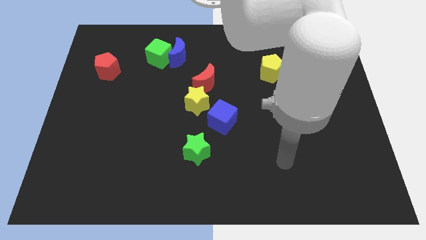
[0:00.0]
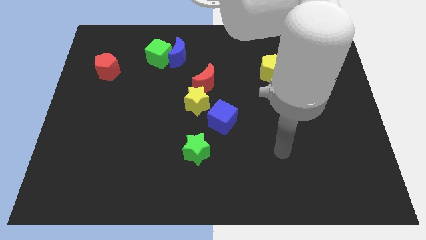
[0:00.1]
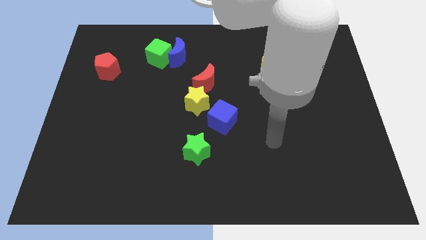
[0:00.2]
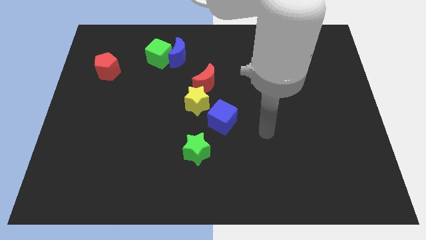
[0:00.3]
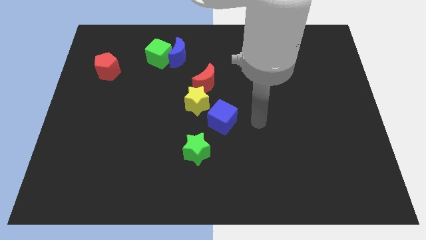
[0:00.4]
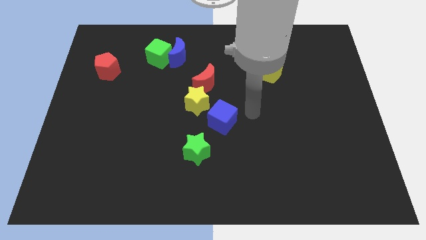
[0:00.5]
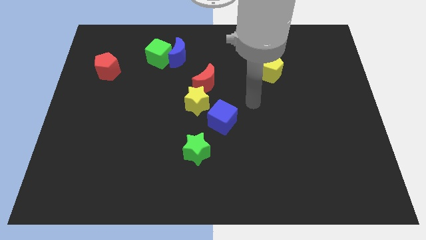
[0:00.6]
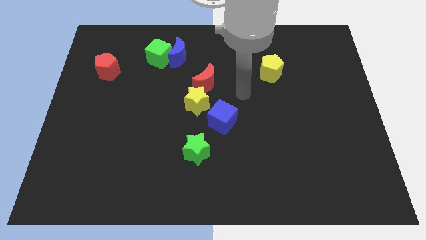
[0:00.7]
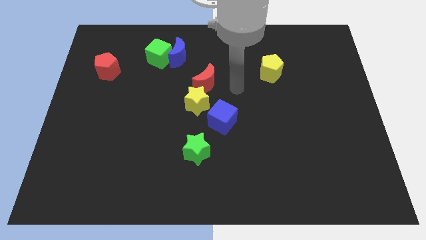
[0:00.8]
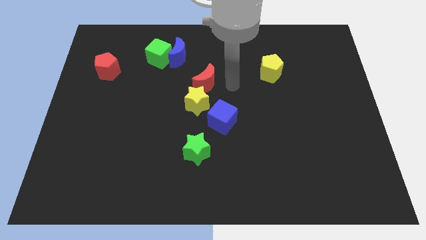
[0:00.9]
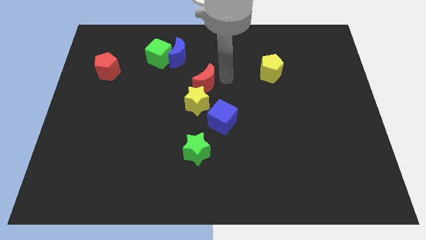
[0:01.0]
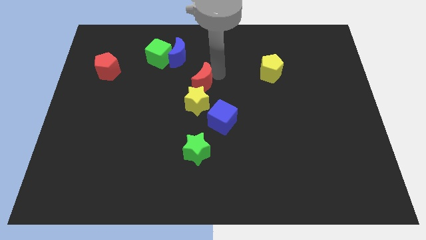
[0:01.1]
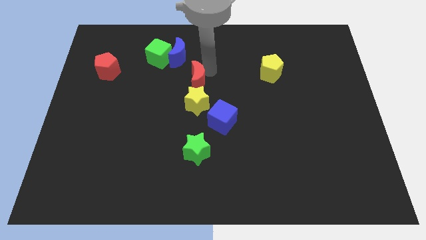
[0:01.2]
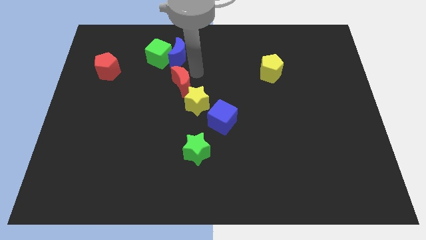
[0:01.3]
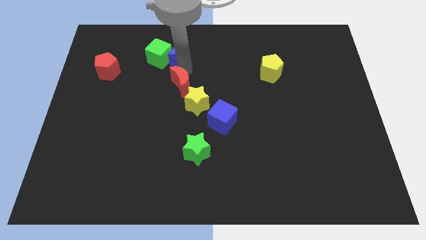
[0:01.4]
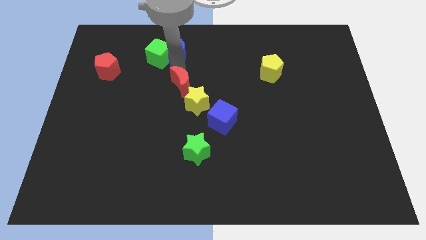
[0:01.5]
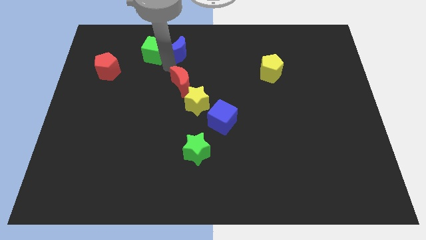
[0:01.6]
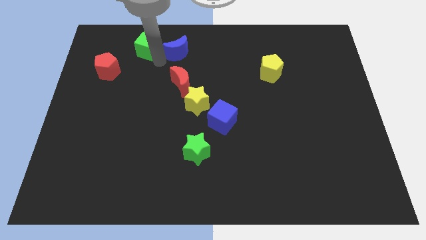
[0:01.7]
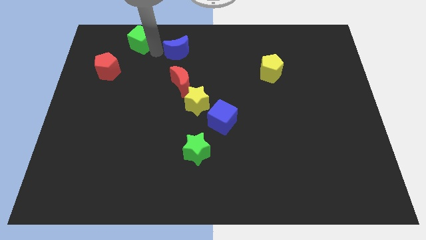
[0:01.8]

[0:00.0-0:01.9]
move the blue moon away from the green cube

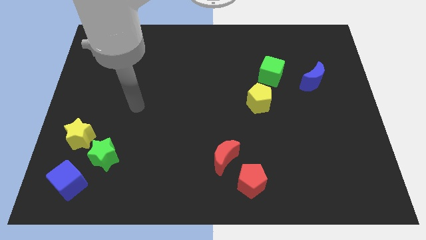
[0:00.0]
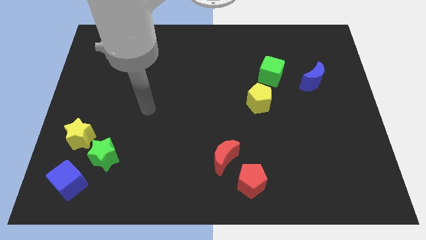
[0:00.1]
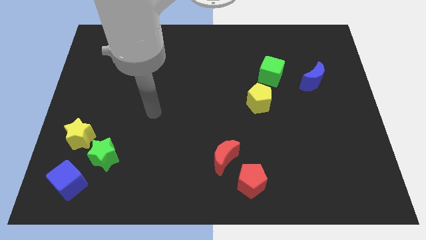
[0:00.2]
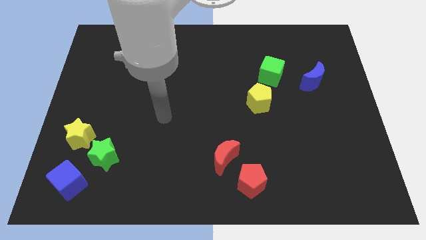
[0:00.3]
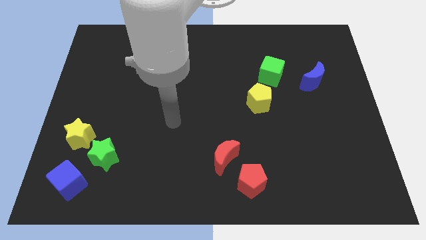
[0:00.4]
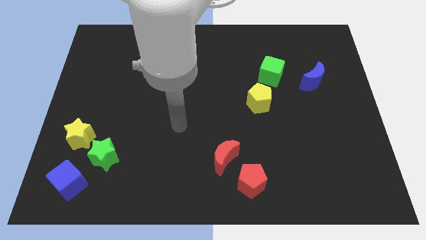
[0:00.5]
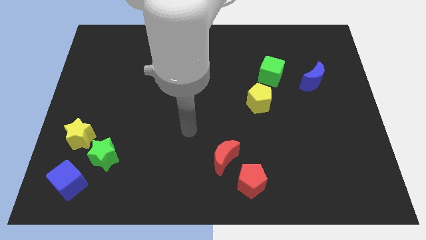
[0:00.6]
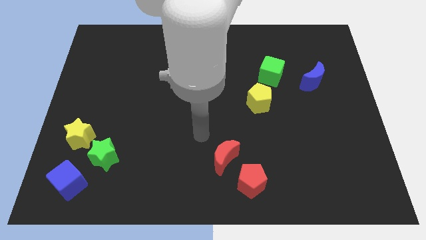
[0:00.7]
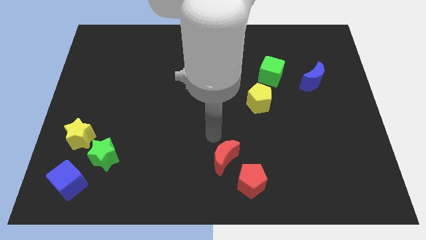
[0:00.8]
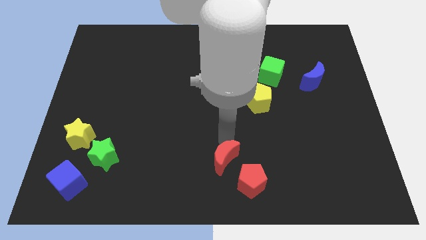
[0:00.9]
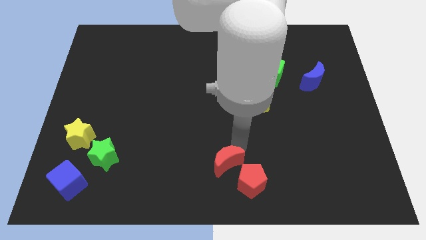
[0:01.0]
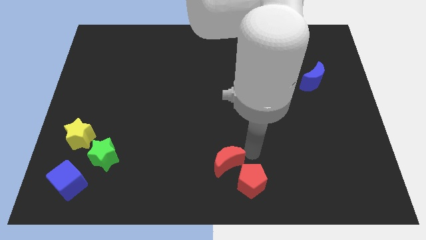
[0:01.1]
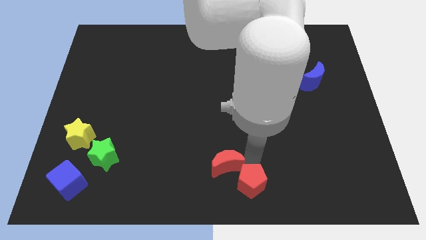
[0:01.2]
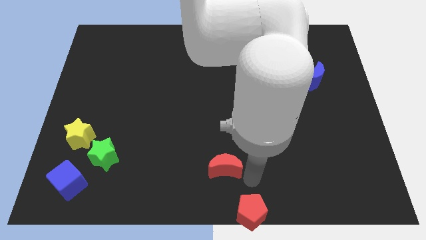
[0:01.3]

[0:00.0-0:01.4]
move the red moon away from the red pentagon

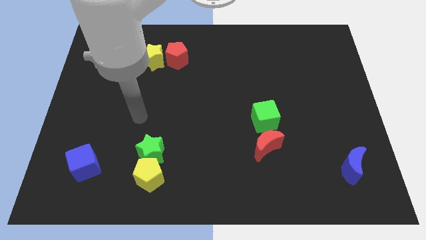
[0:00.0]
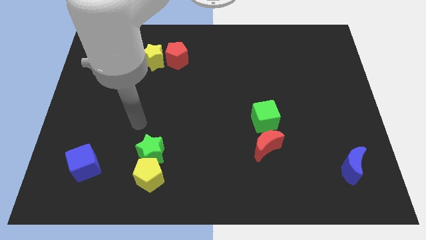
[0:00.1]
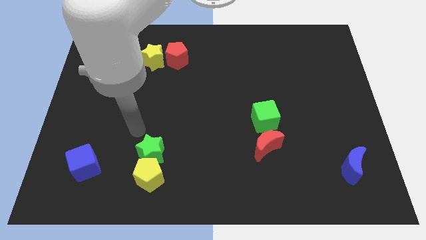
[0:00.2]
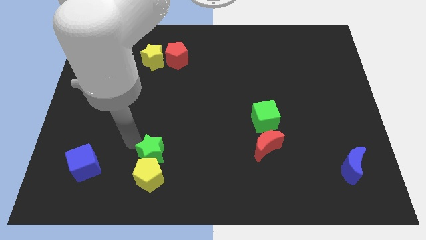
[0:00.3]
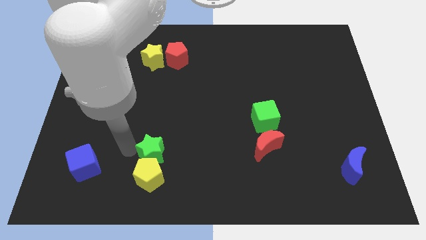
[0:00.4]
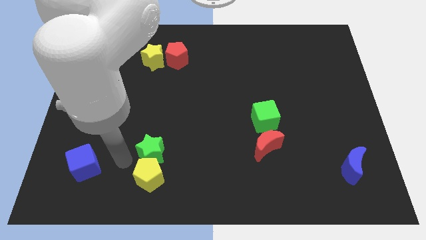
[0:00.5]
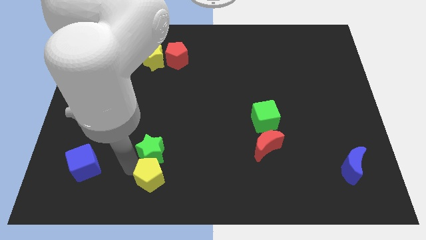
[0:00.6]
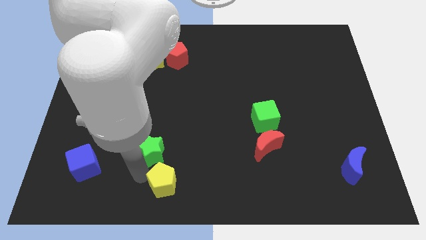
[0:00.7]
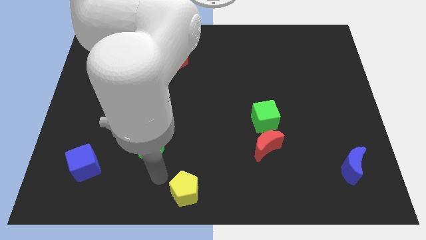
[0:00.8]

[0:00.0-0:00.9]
pull the green star apart from the yellow pentagon

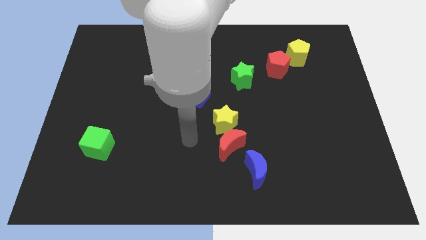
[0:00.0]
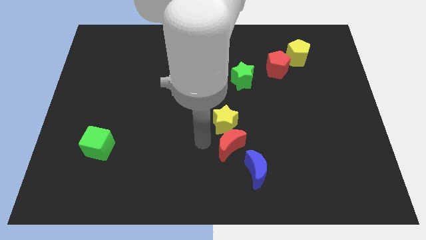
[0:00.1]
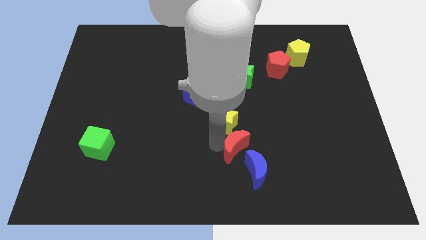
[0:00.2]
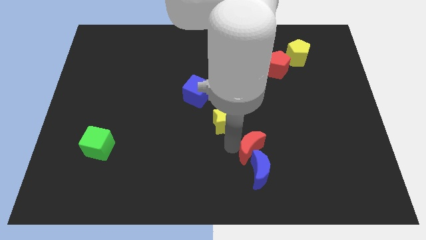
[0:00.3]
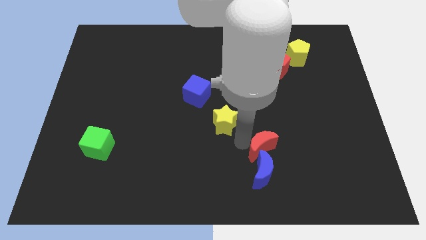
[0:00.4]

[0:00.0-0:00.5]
separate the yellow star from the red moon

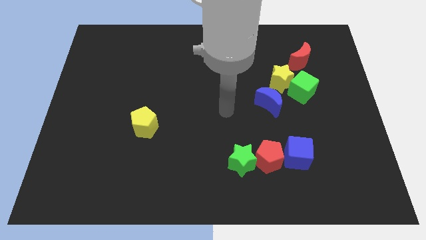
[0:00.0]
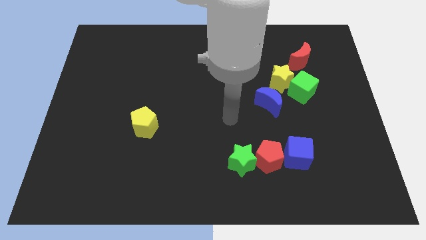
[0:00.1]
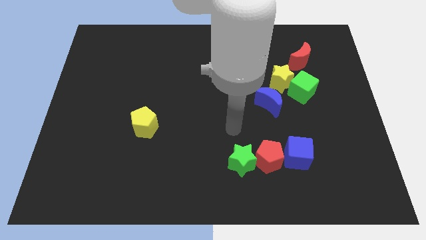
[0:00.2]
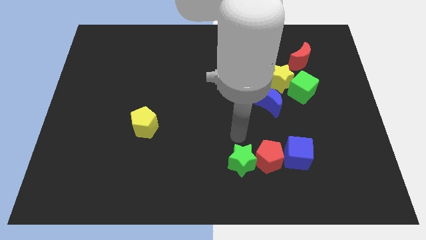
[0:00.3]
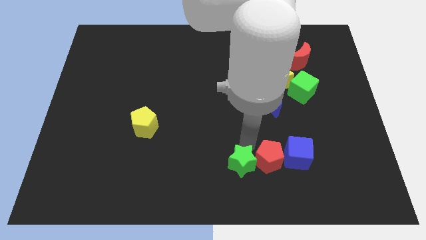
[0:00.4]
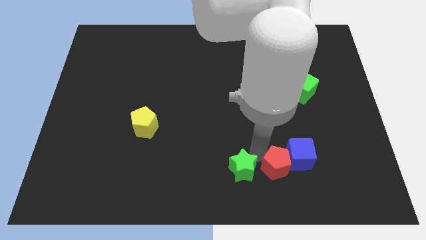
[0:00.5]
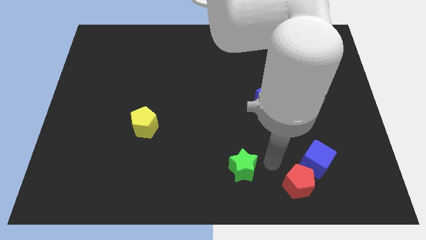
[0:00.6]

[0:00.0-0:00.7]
move the green star away from the red pentagon

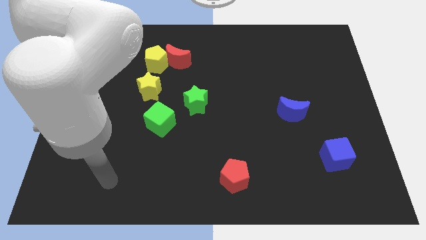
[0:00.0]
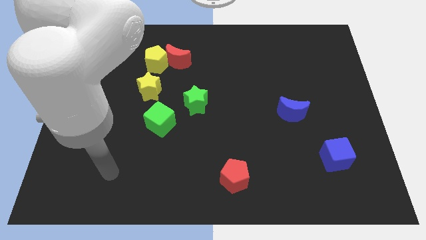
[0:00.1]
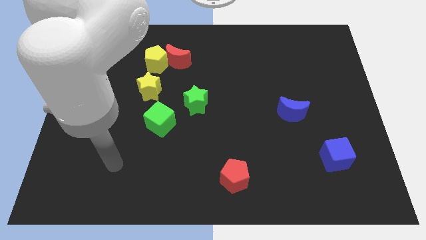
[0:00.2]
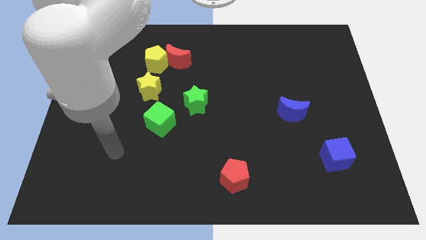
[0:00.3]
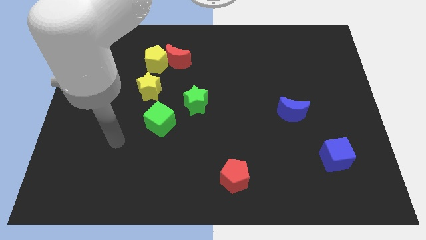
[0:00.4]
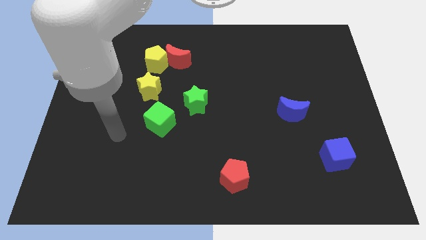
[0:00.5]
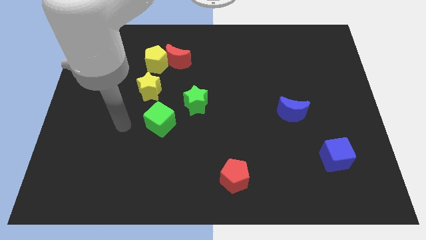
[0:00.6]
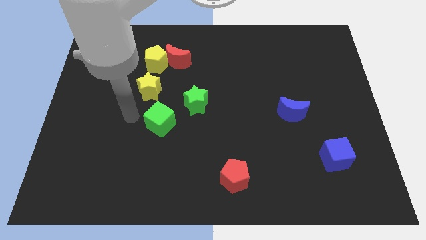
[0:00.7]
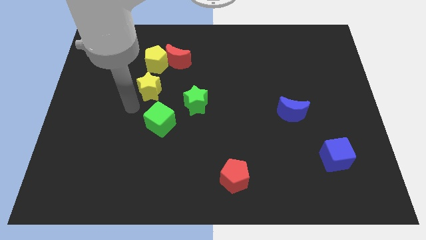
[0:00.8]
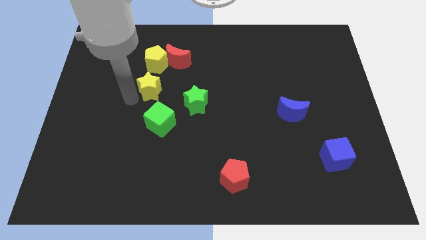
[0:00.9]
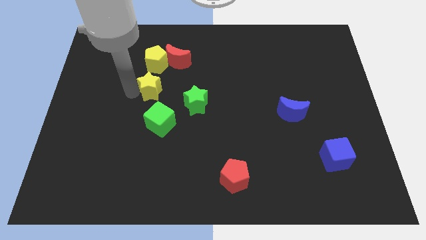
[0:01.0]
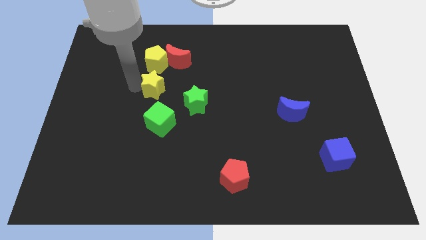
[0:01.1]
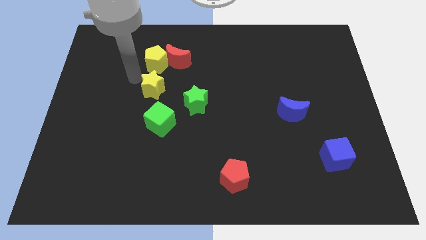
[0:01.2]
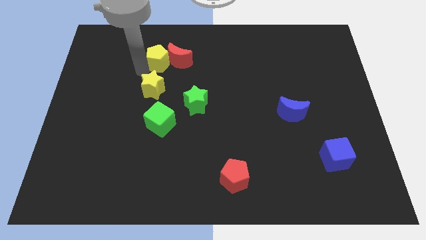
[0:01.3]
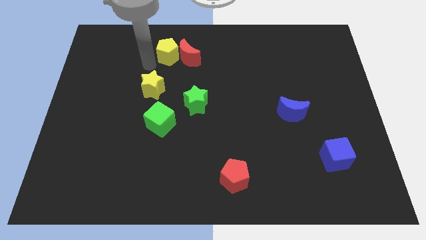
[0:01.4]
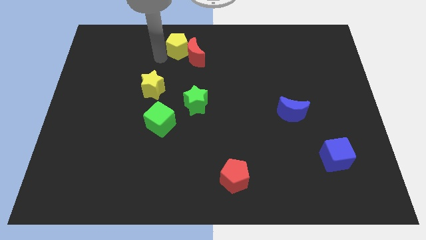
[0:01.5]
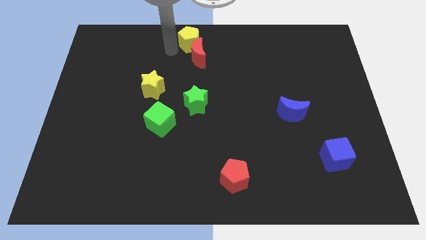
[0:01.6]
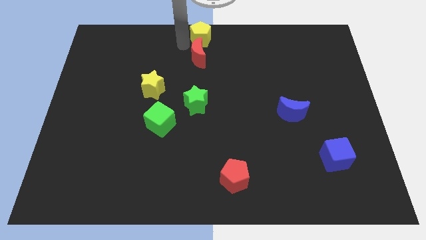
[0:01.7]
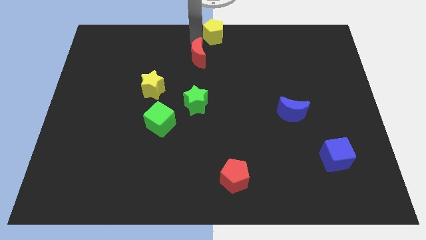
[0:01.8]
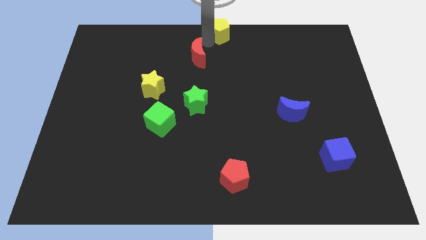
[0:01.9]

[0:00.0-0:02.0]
pull the red moon apart from the yellow pentagon

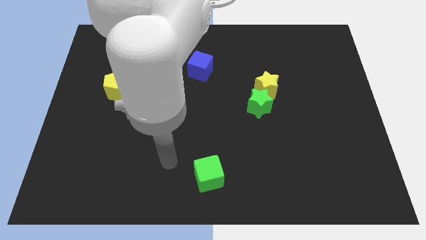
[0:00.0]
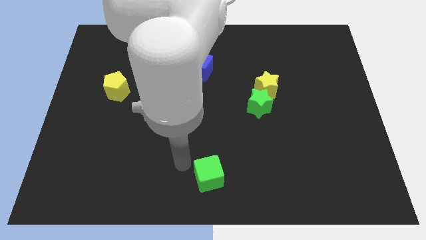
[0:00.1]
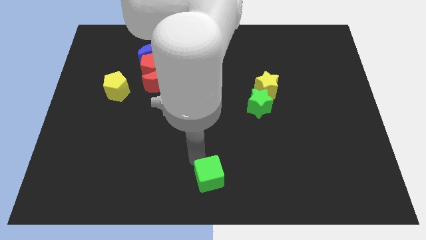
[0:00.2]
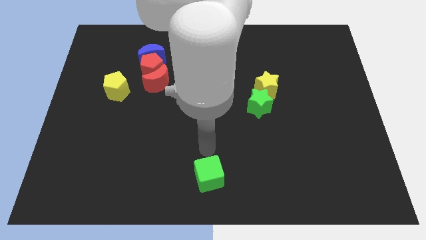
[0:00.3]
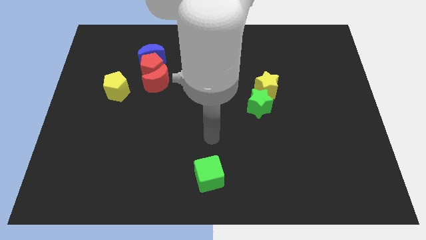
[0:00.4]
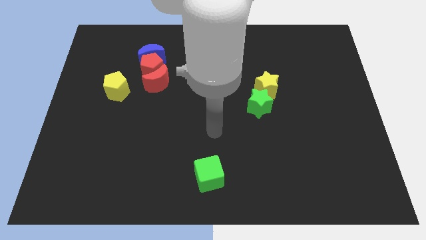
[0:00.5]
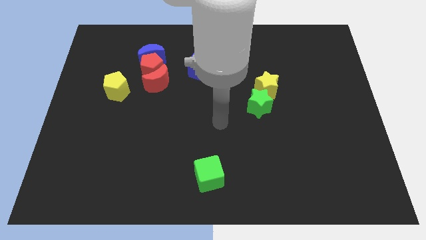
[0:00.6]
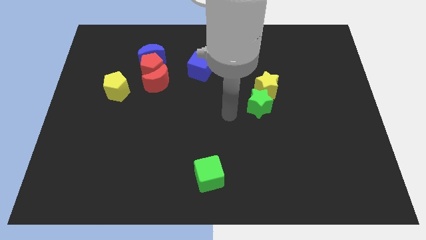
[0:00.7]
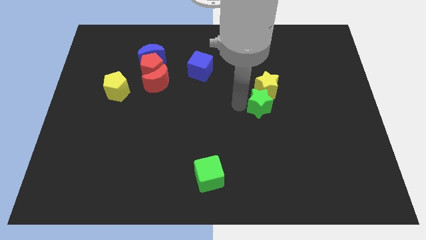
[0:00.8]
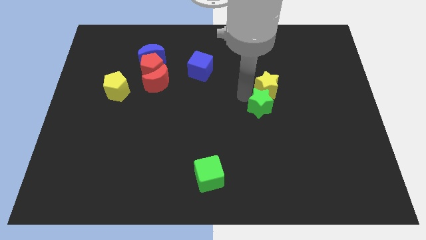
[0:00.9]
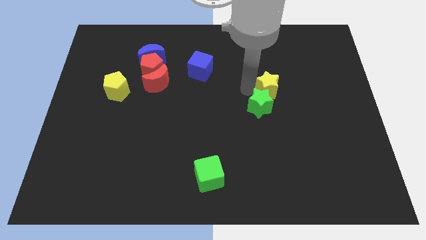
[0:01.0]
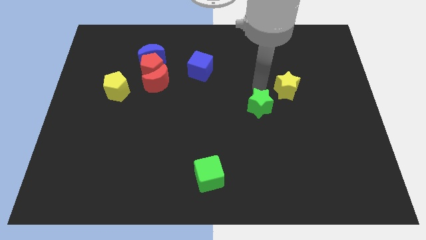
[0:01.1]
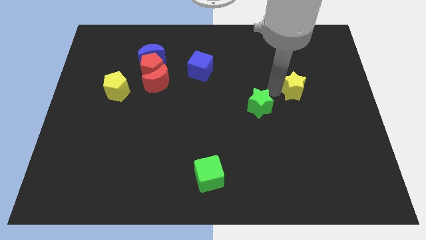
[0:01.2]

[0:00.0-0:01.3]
move the green star away from the yellow star

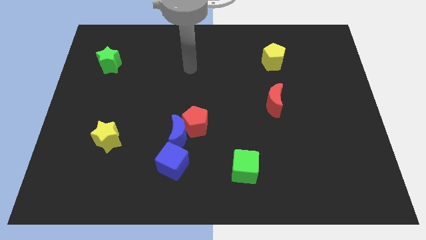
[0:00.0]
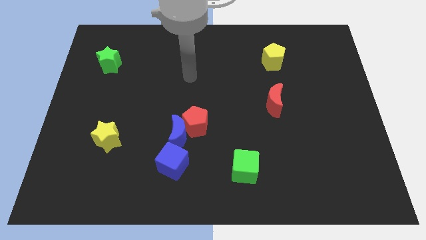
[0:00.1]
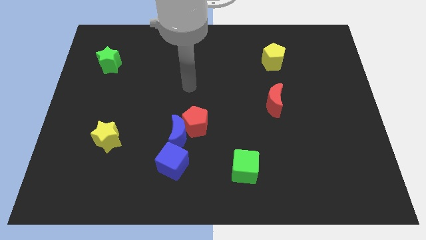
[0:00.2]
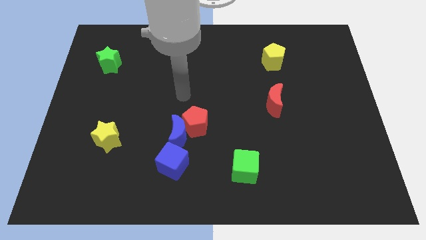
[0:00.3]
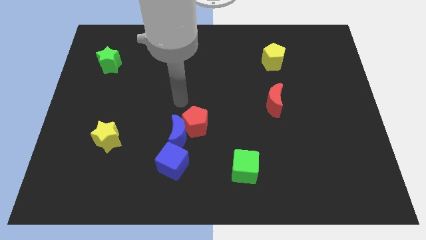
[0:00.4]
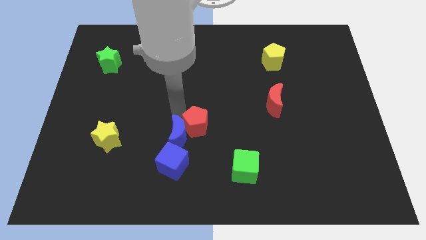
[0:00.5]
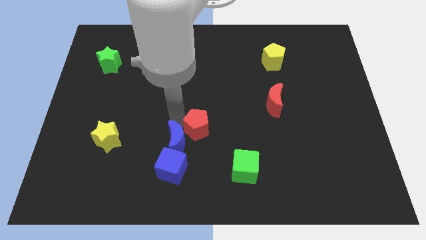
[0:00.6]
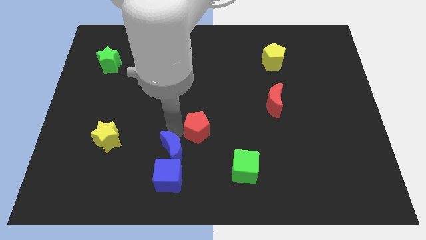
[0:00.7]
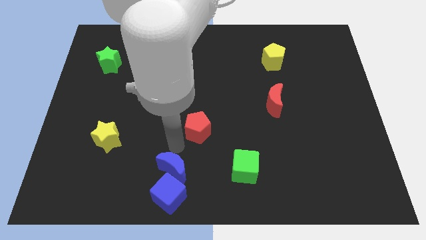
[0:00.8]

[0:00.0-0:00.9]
move the red pentagon away from the blue moon
